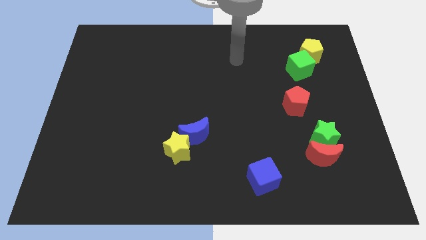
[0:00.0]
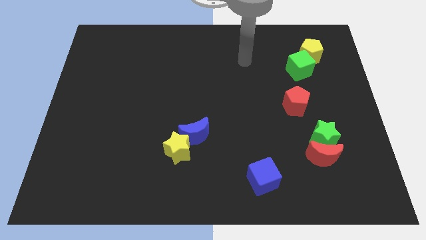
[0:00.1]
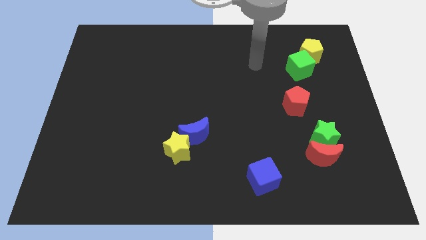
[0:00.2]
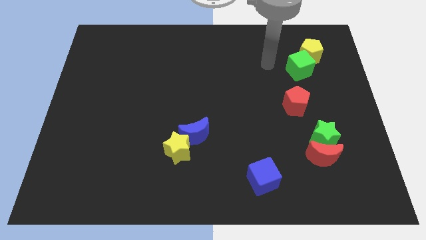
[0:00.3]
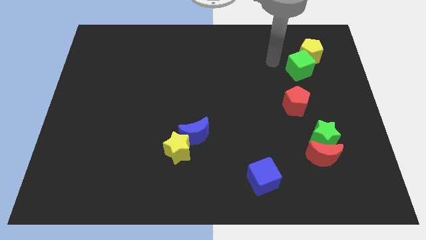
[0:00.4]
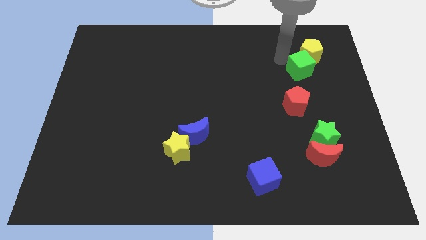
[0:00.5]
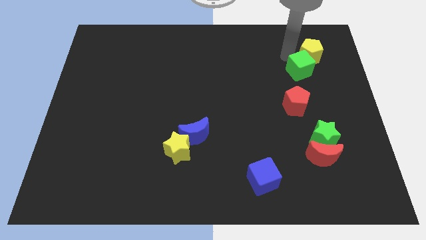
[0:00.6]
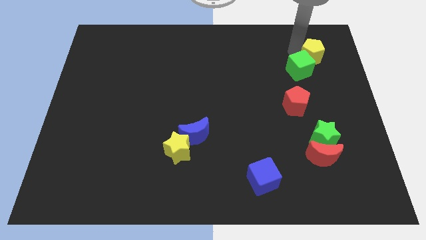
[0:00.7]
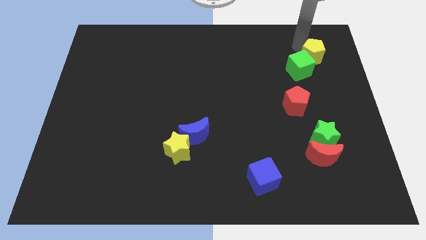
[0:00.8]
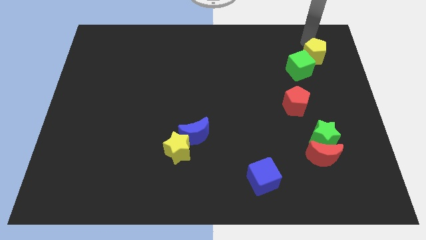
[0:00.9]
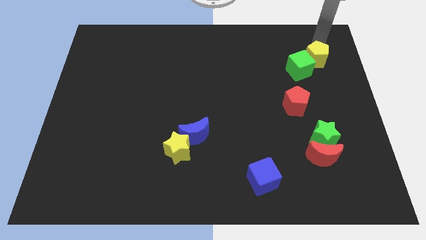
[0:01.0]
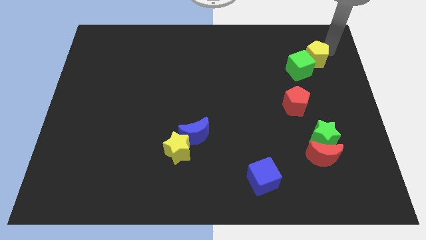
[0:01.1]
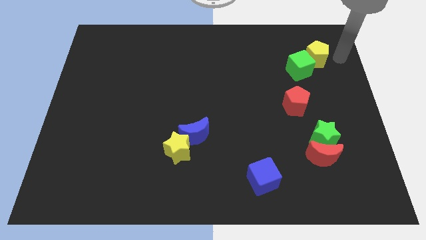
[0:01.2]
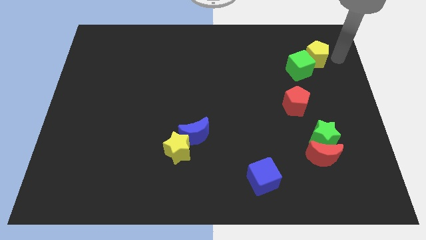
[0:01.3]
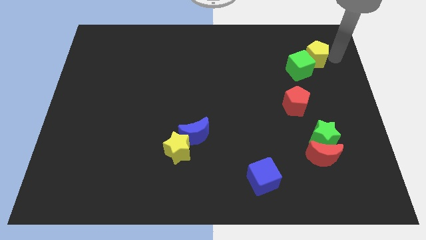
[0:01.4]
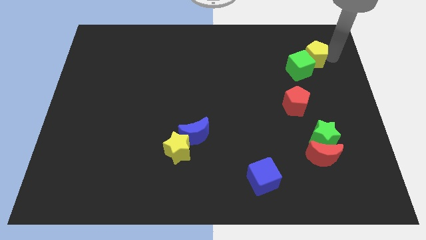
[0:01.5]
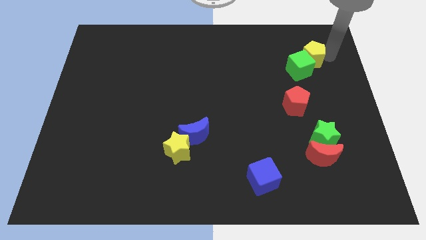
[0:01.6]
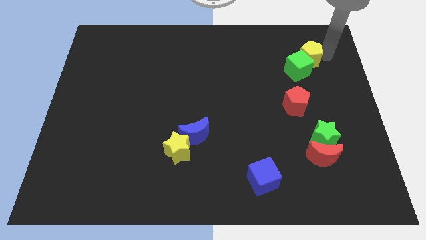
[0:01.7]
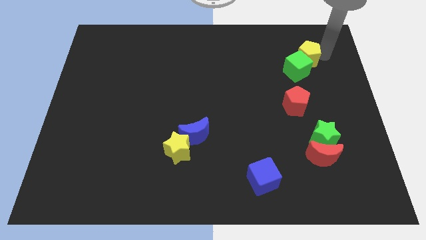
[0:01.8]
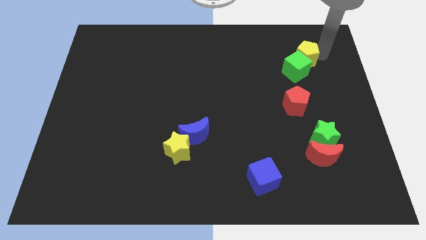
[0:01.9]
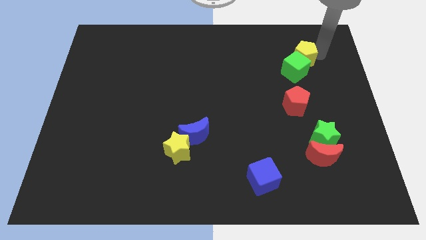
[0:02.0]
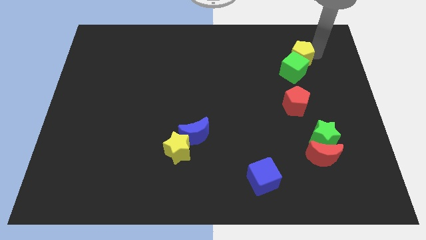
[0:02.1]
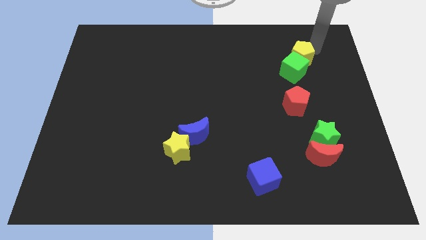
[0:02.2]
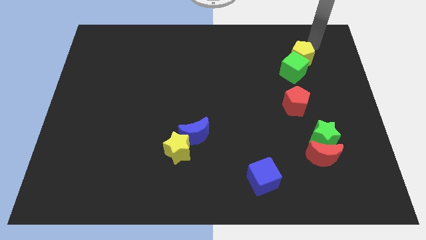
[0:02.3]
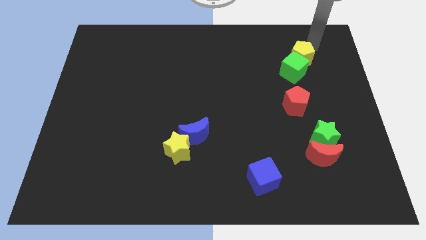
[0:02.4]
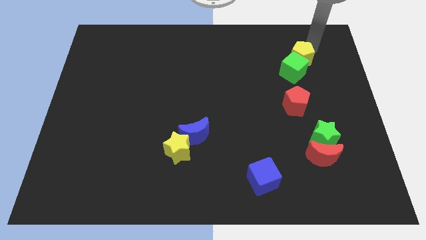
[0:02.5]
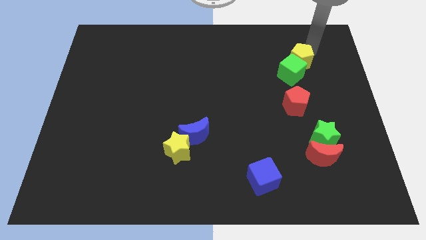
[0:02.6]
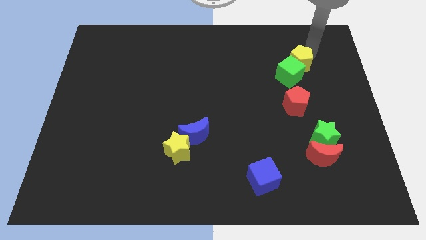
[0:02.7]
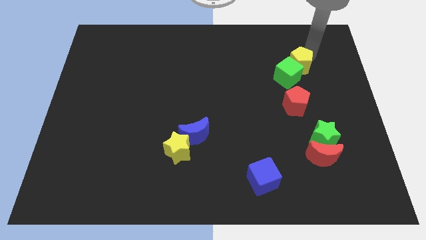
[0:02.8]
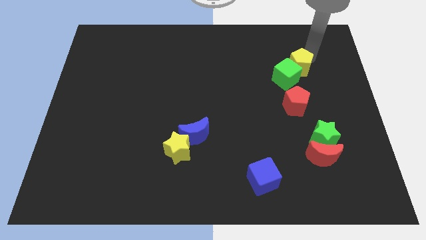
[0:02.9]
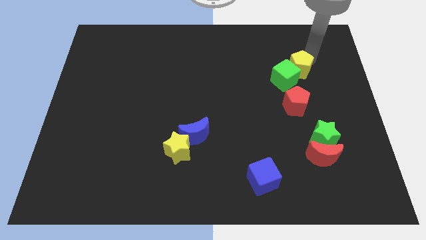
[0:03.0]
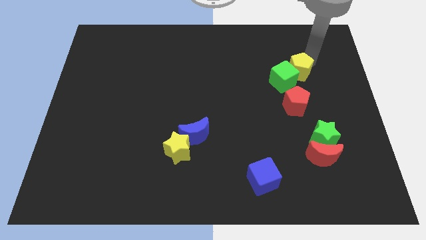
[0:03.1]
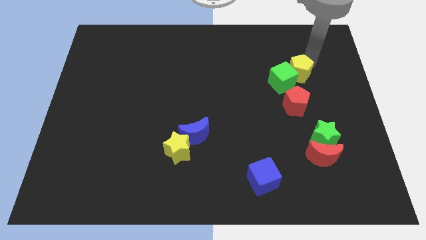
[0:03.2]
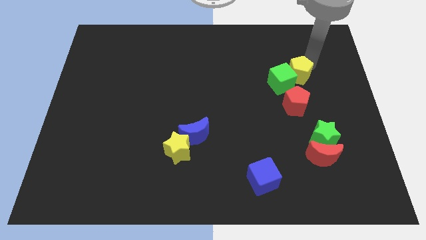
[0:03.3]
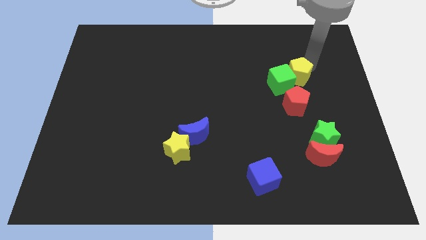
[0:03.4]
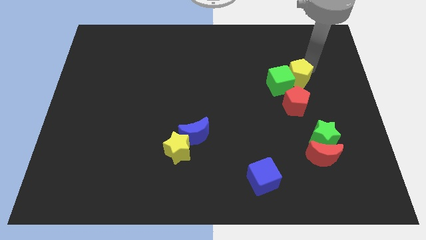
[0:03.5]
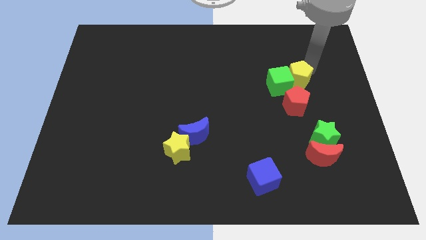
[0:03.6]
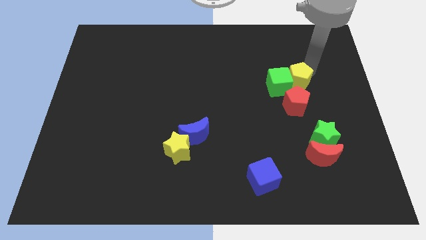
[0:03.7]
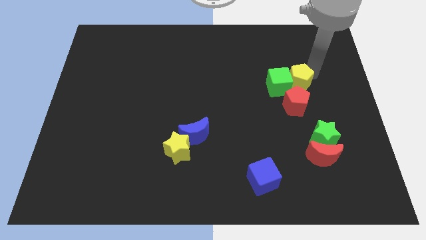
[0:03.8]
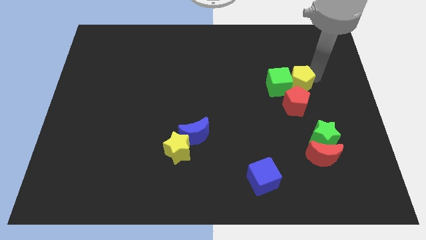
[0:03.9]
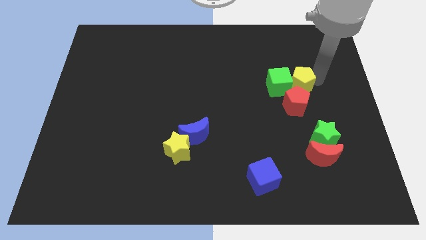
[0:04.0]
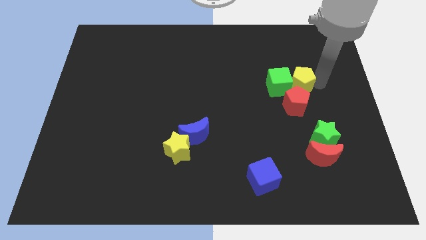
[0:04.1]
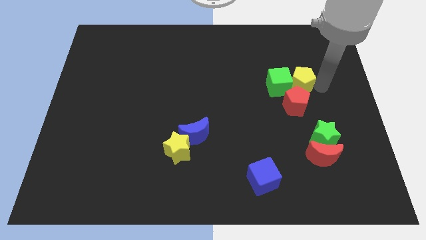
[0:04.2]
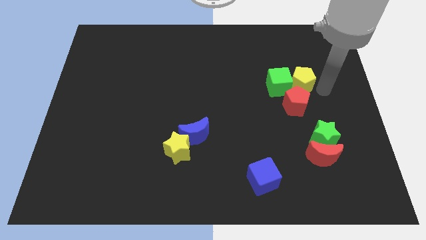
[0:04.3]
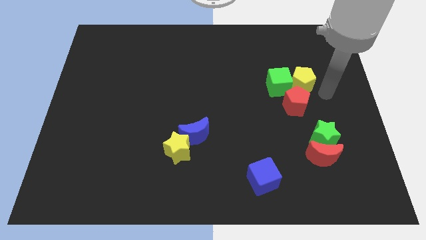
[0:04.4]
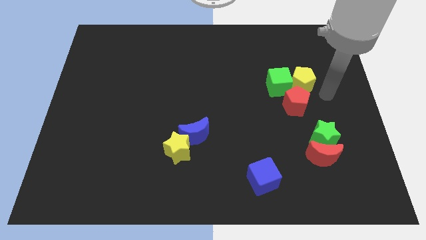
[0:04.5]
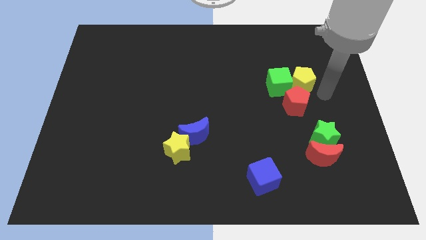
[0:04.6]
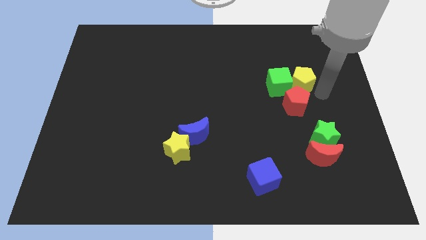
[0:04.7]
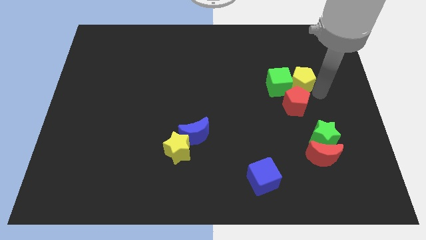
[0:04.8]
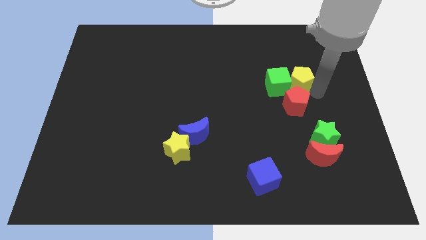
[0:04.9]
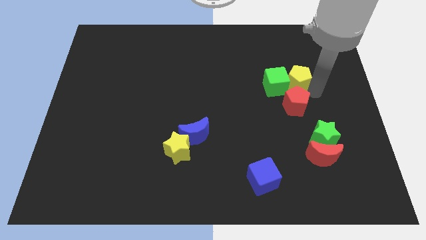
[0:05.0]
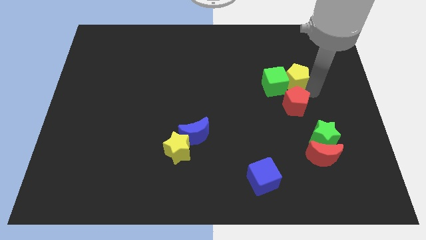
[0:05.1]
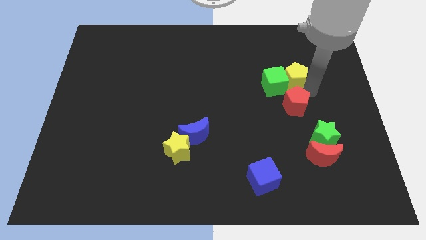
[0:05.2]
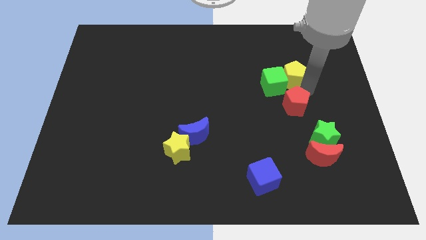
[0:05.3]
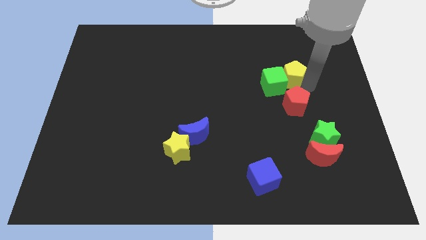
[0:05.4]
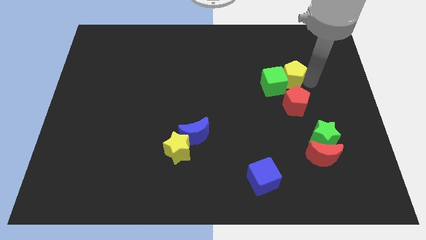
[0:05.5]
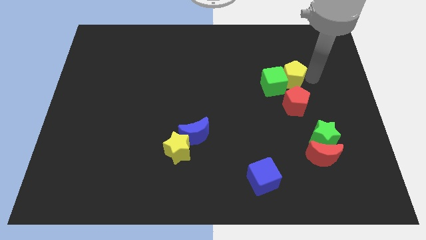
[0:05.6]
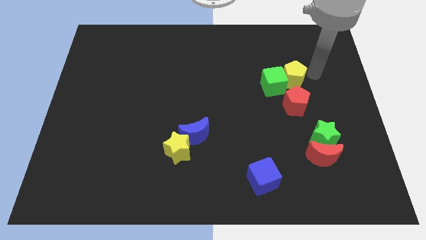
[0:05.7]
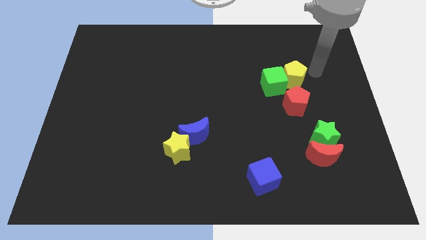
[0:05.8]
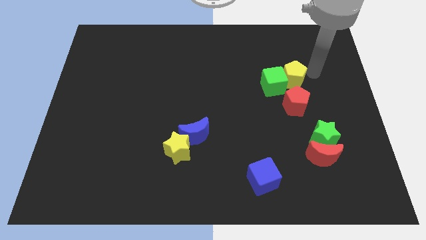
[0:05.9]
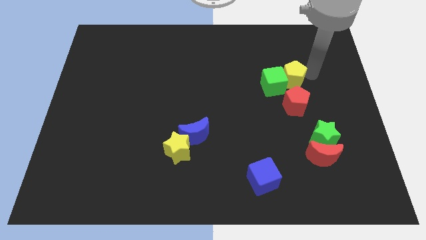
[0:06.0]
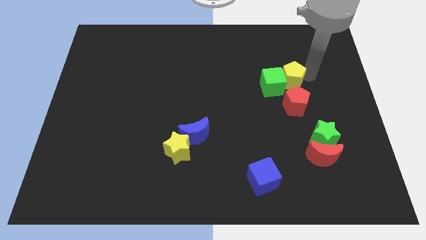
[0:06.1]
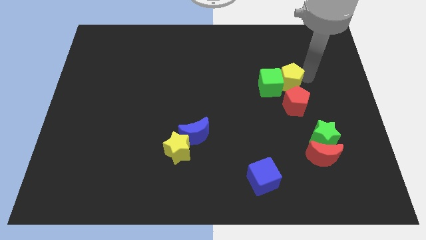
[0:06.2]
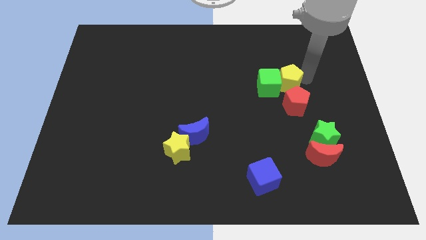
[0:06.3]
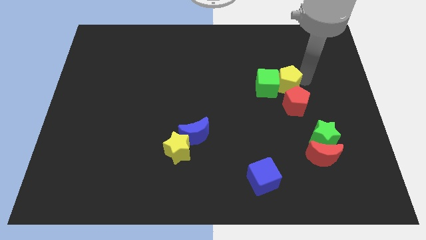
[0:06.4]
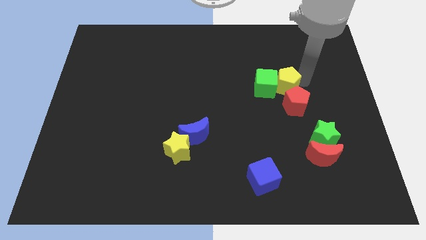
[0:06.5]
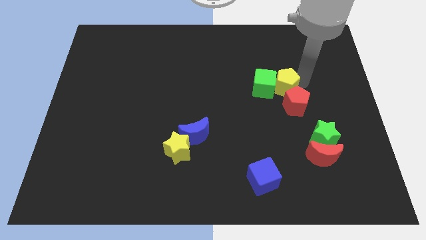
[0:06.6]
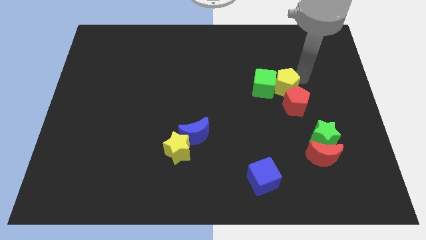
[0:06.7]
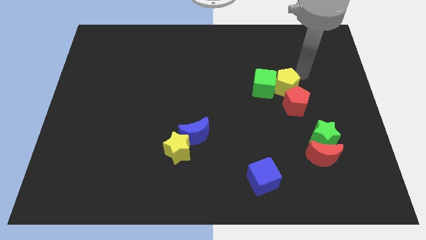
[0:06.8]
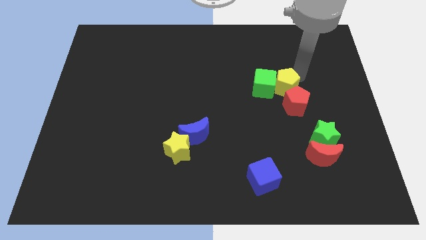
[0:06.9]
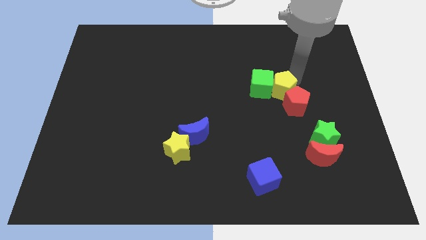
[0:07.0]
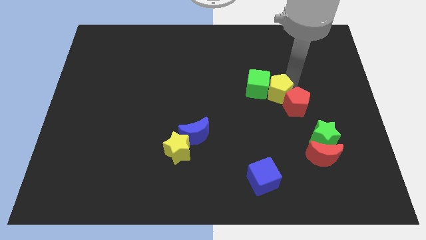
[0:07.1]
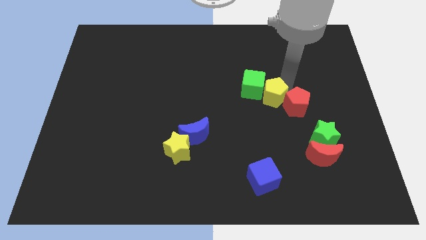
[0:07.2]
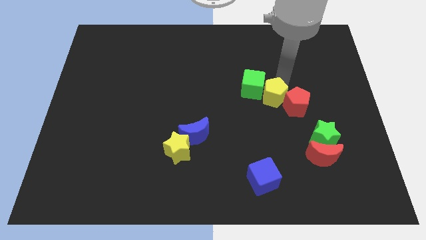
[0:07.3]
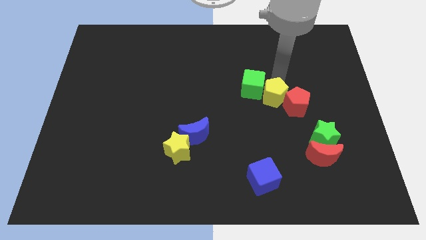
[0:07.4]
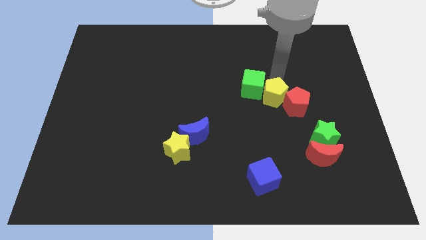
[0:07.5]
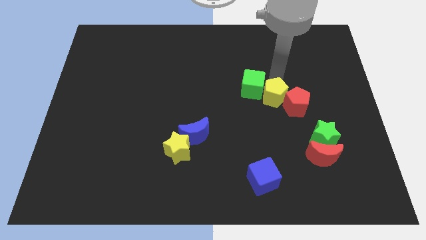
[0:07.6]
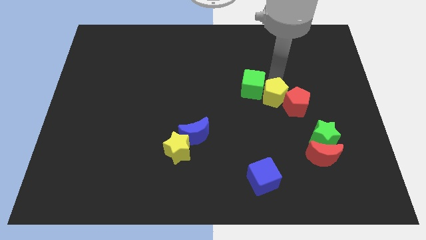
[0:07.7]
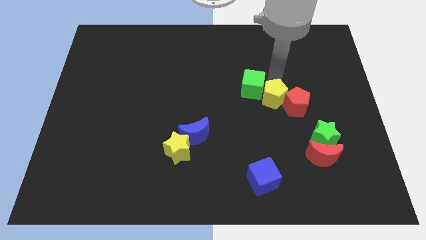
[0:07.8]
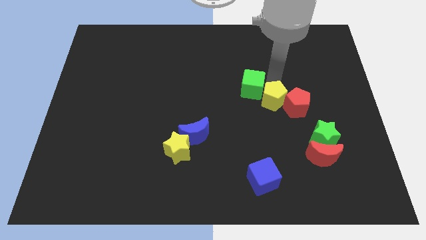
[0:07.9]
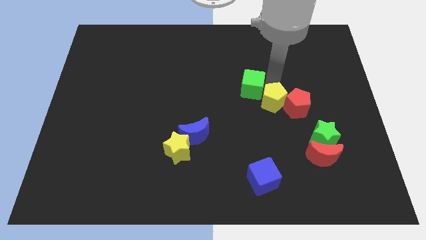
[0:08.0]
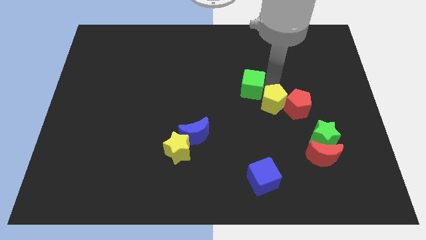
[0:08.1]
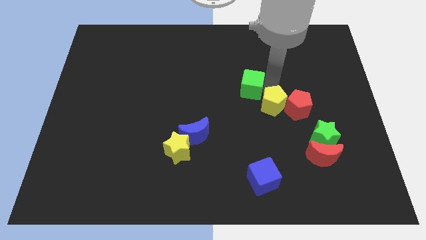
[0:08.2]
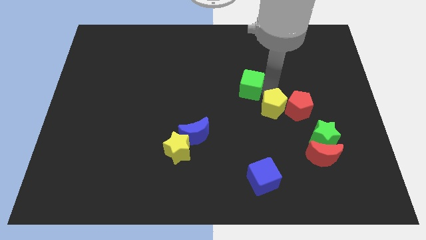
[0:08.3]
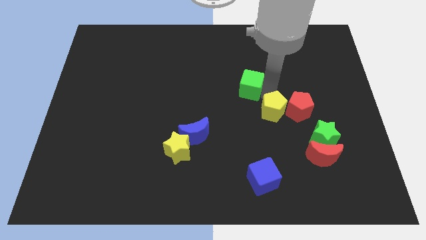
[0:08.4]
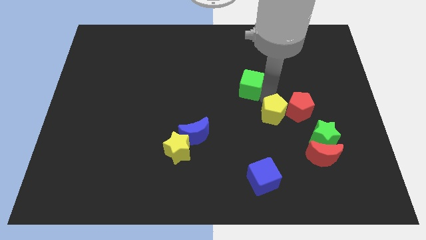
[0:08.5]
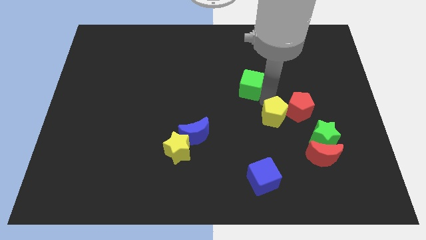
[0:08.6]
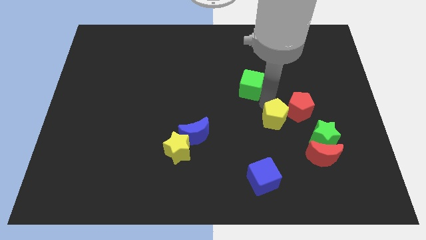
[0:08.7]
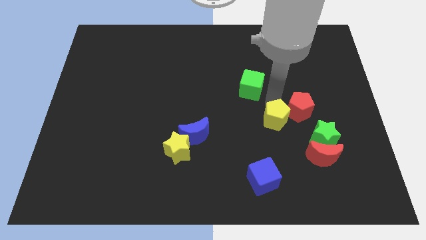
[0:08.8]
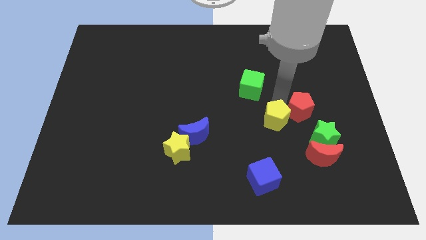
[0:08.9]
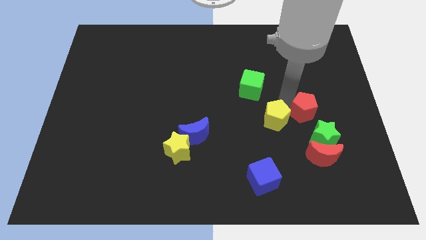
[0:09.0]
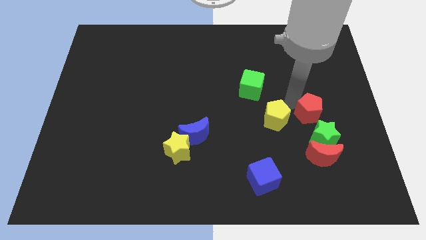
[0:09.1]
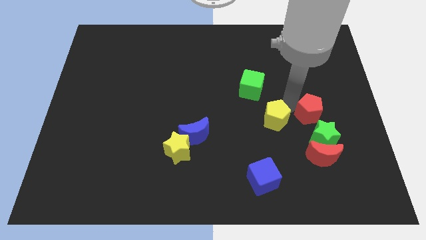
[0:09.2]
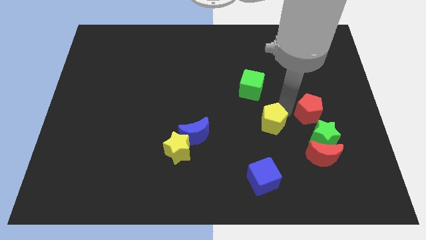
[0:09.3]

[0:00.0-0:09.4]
push the yellow pentagon to the top side of the blue cube
